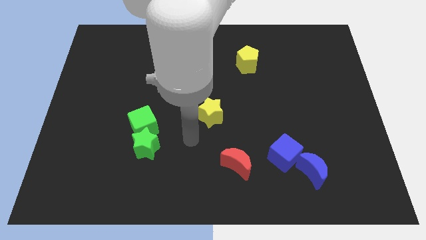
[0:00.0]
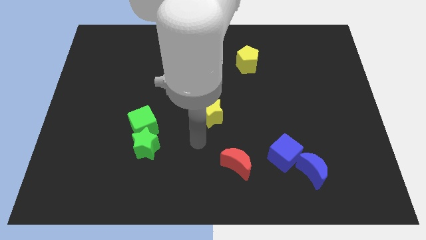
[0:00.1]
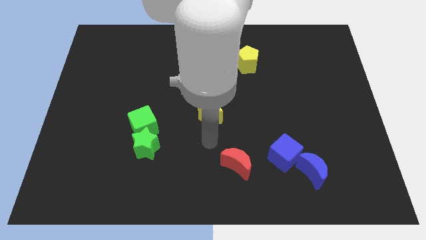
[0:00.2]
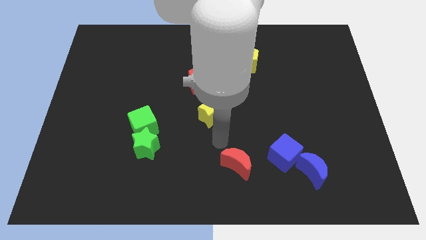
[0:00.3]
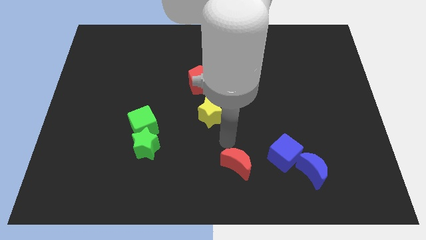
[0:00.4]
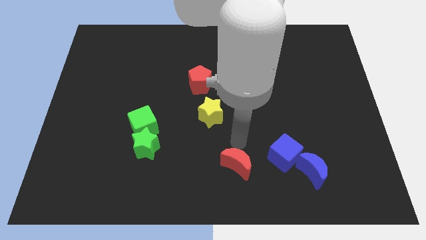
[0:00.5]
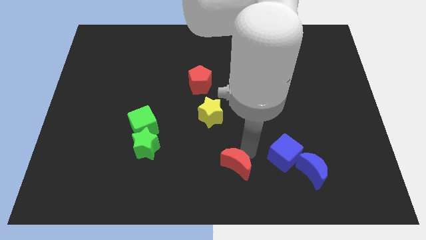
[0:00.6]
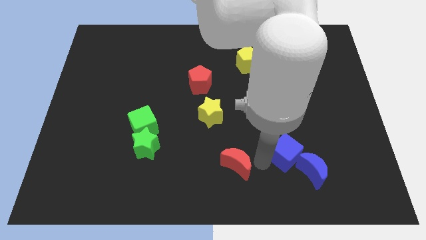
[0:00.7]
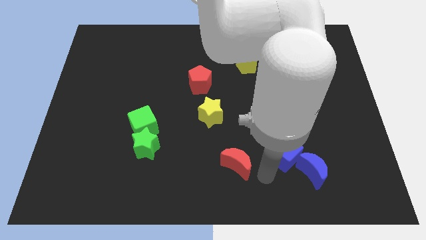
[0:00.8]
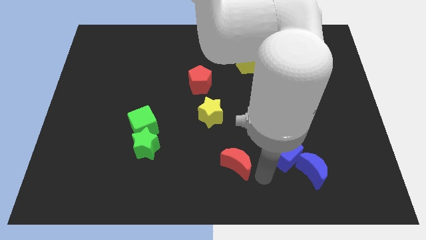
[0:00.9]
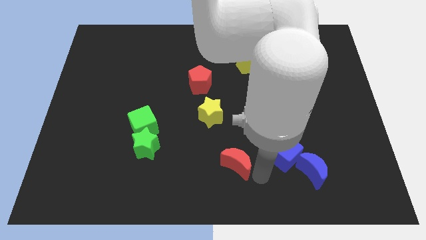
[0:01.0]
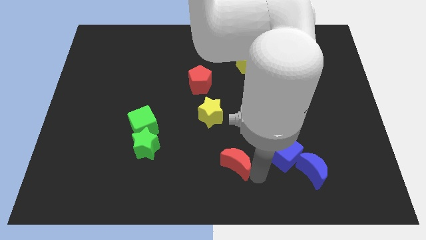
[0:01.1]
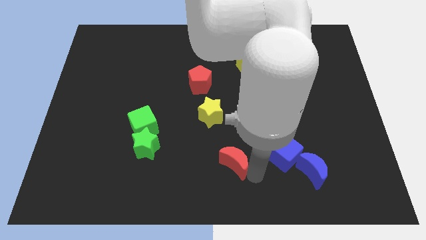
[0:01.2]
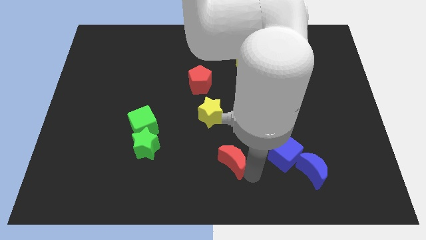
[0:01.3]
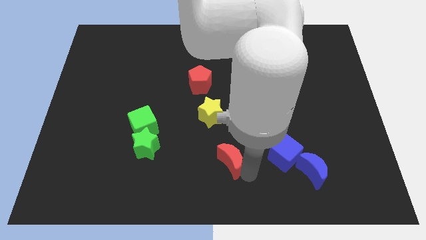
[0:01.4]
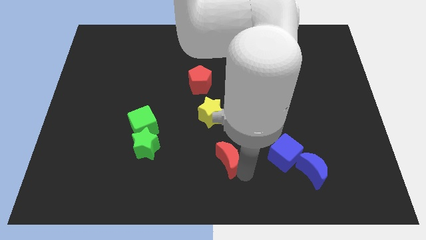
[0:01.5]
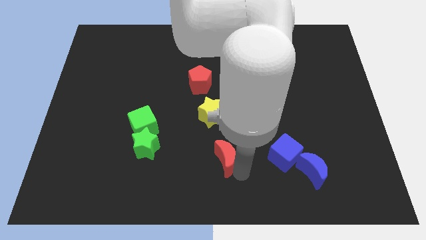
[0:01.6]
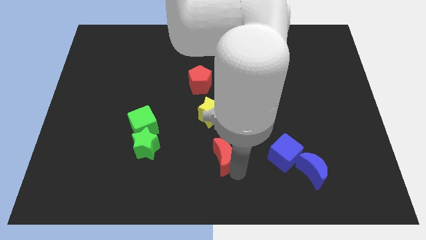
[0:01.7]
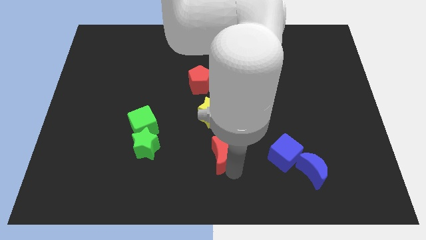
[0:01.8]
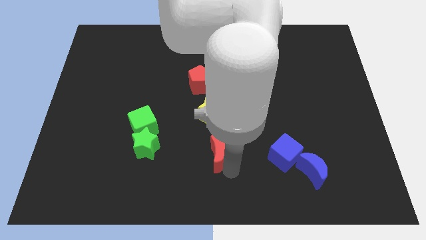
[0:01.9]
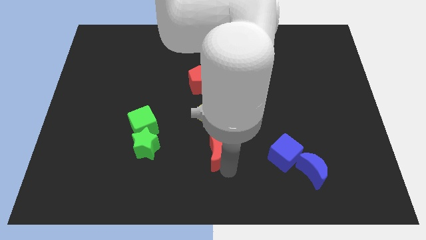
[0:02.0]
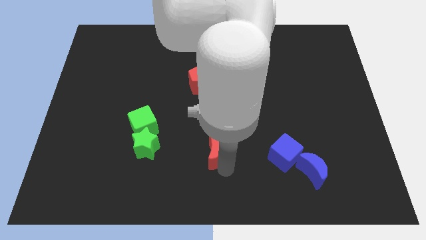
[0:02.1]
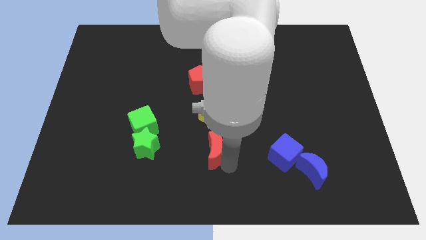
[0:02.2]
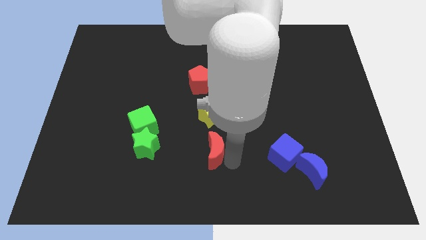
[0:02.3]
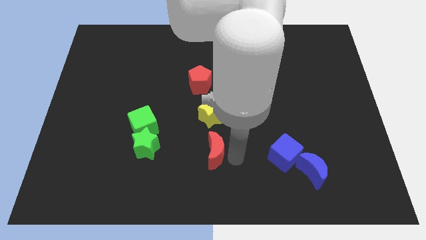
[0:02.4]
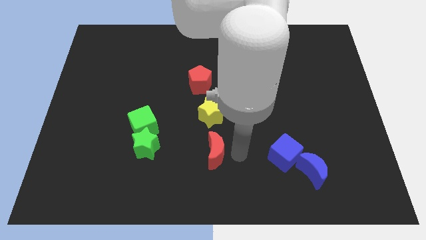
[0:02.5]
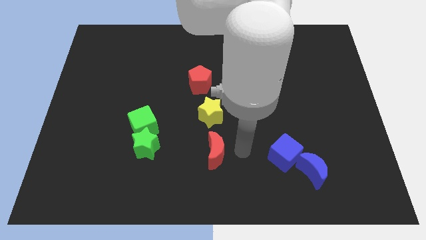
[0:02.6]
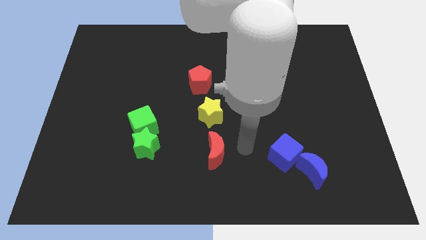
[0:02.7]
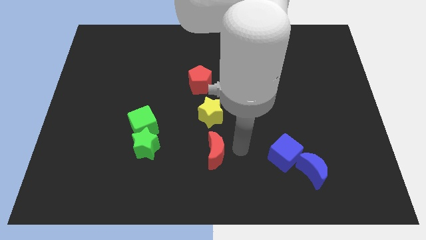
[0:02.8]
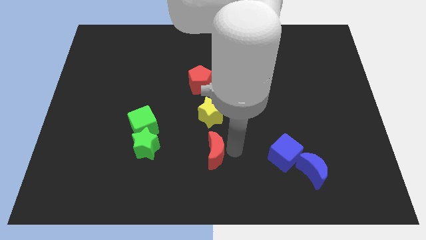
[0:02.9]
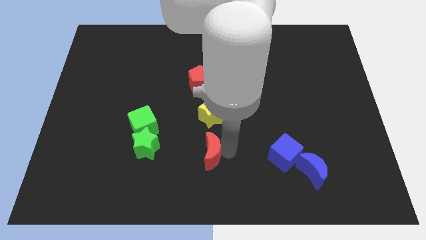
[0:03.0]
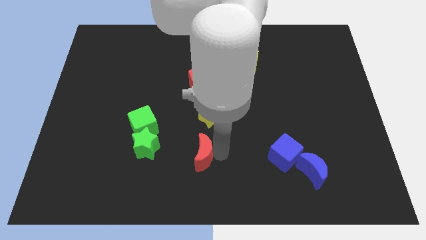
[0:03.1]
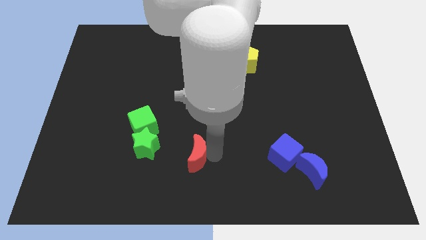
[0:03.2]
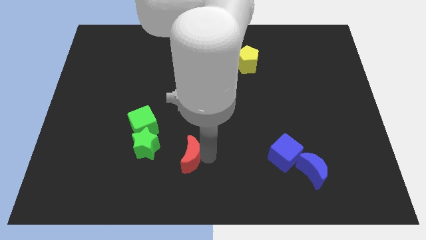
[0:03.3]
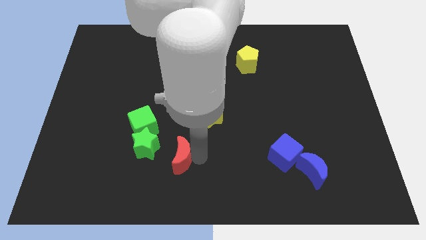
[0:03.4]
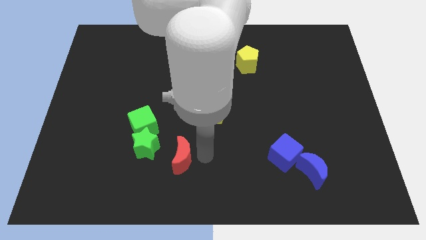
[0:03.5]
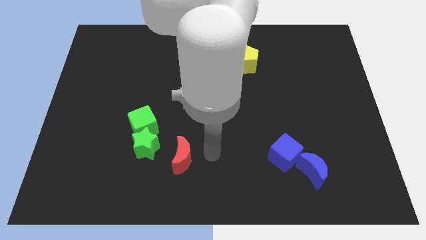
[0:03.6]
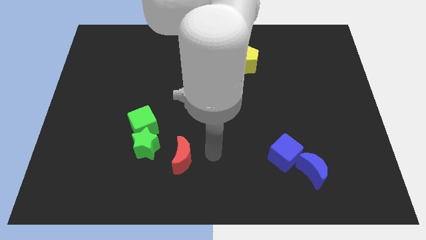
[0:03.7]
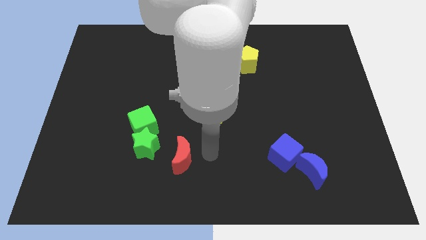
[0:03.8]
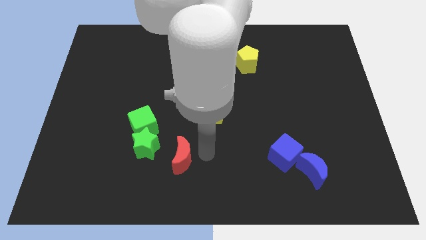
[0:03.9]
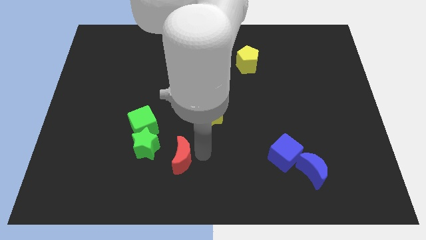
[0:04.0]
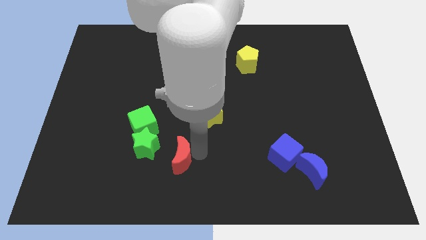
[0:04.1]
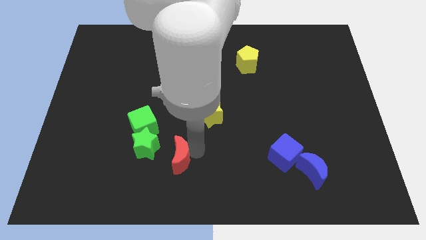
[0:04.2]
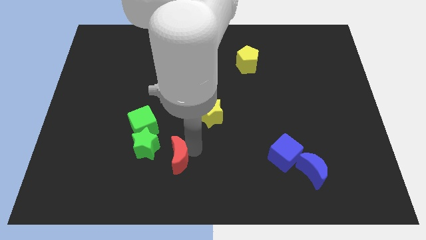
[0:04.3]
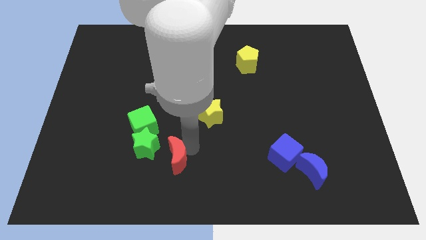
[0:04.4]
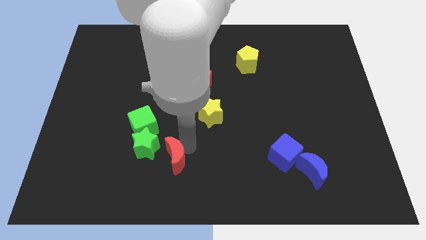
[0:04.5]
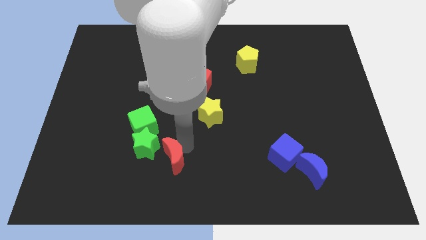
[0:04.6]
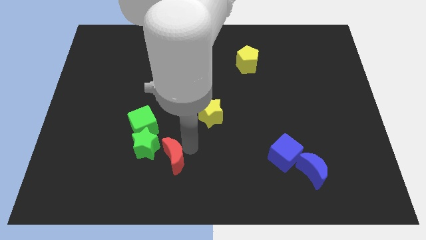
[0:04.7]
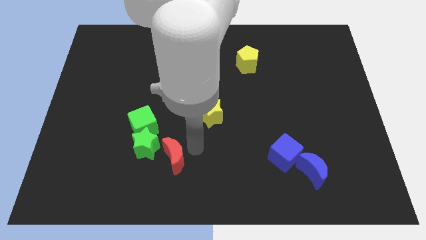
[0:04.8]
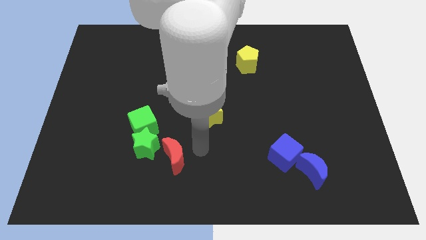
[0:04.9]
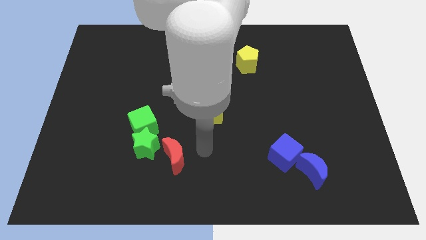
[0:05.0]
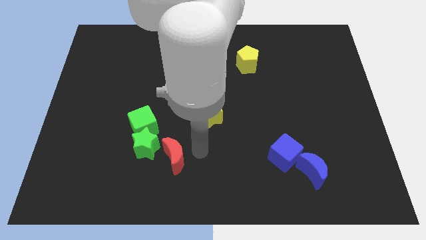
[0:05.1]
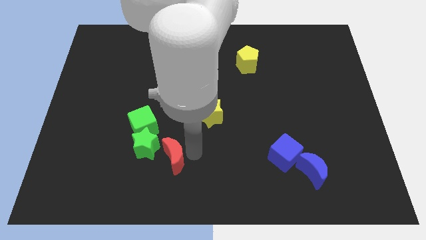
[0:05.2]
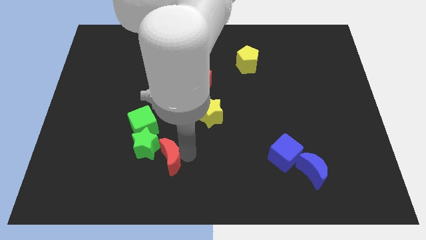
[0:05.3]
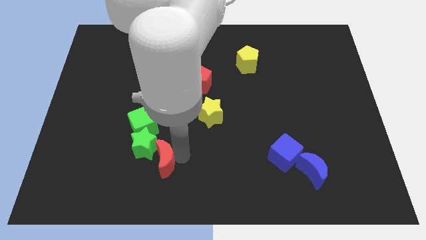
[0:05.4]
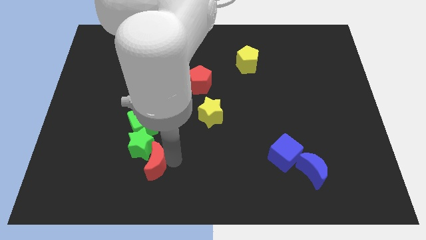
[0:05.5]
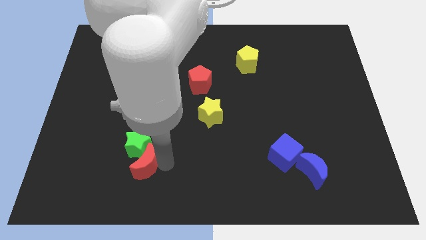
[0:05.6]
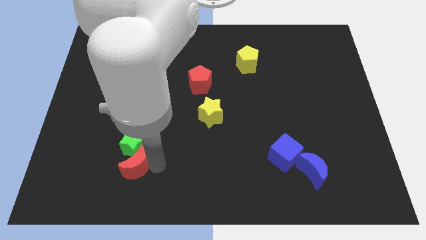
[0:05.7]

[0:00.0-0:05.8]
push the red moon left

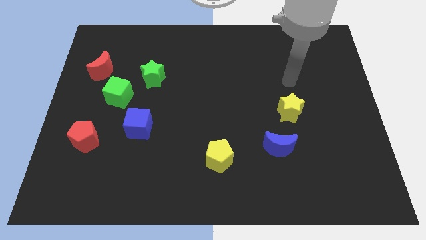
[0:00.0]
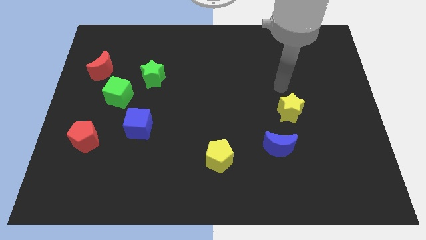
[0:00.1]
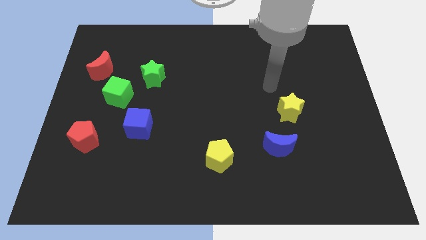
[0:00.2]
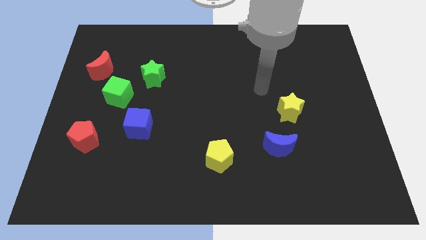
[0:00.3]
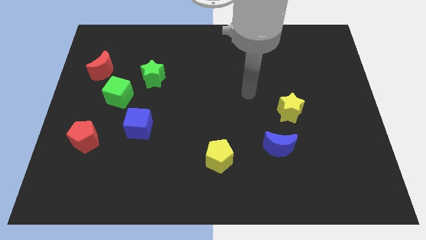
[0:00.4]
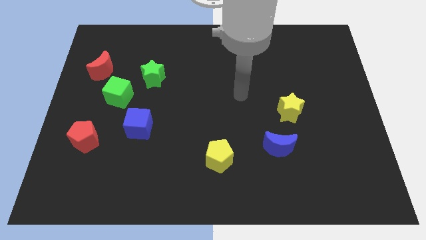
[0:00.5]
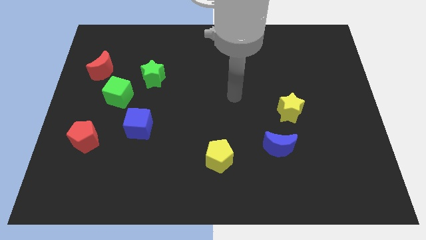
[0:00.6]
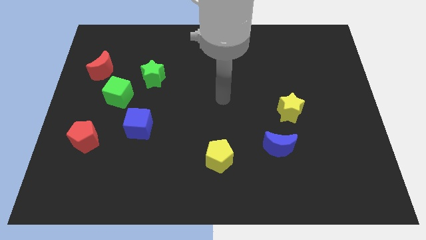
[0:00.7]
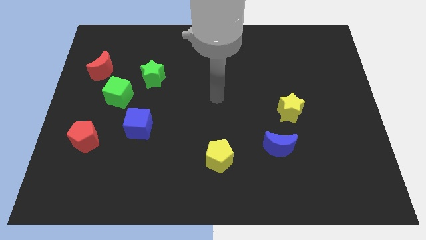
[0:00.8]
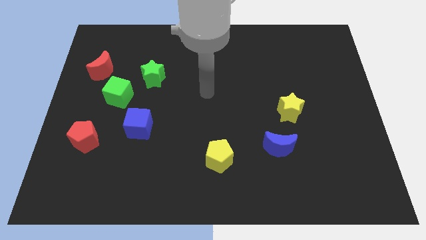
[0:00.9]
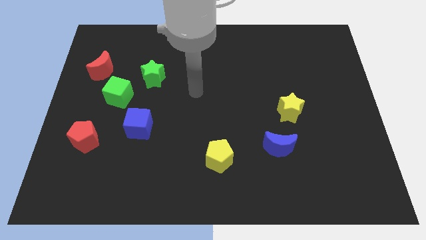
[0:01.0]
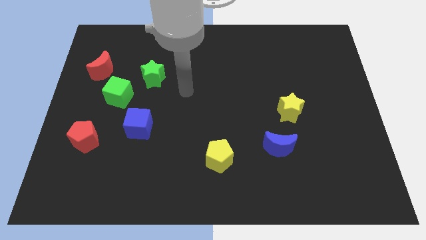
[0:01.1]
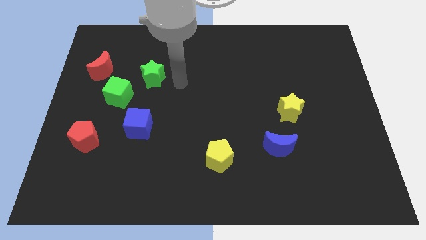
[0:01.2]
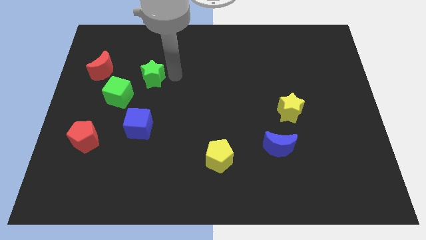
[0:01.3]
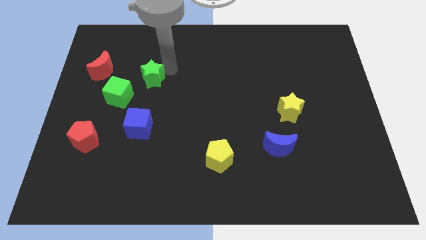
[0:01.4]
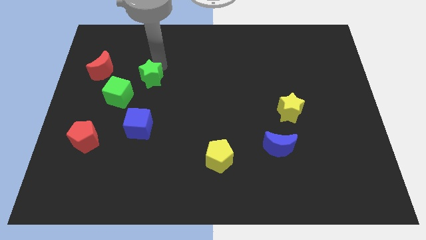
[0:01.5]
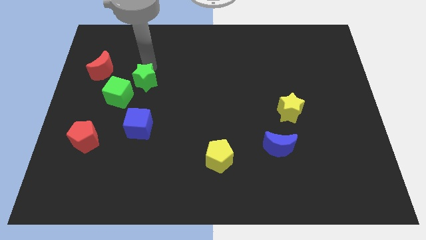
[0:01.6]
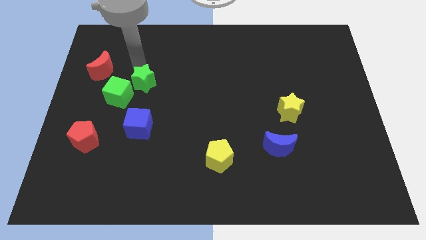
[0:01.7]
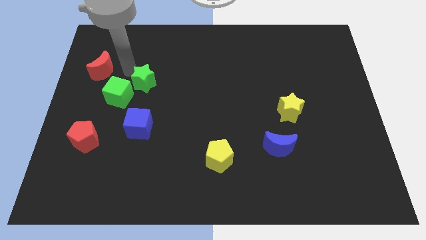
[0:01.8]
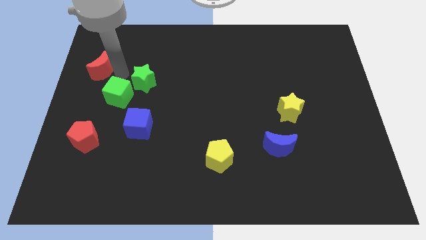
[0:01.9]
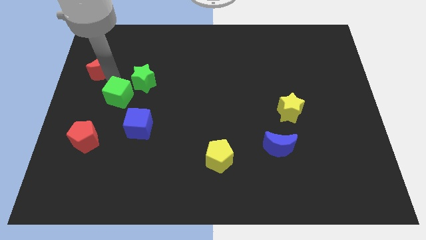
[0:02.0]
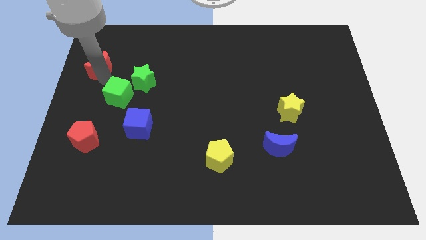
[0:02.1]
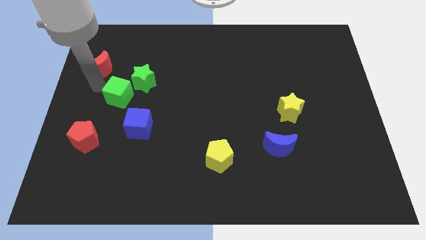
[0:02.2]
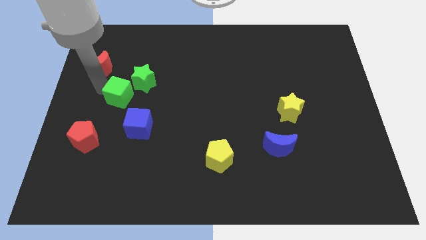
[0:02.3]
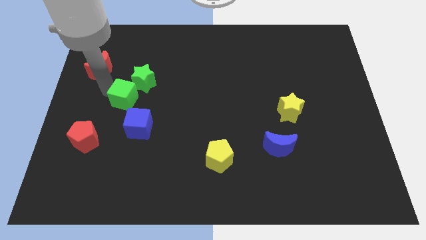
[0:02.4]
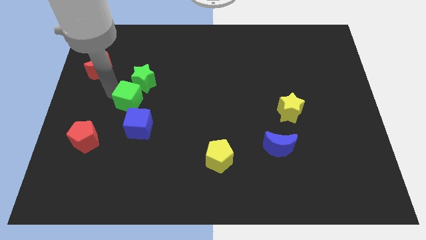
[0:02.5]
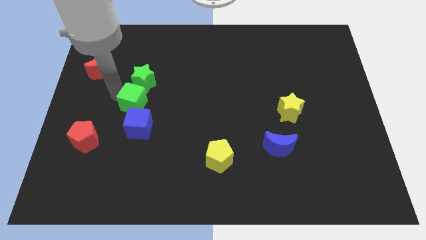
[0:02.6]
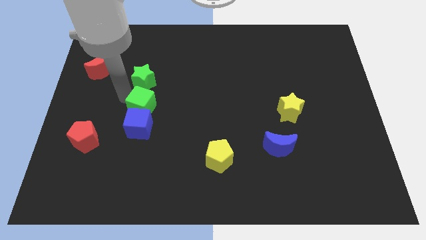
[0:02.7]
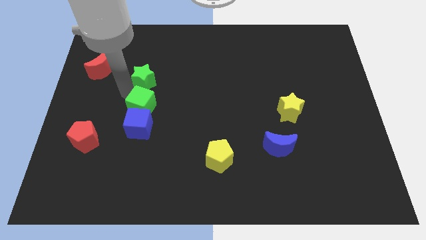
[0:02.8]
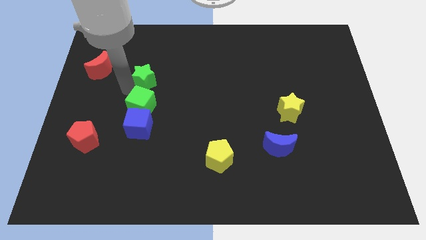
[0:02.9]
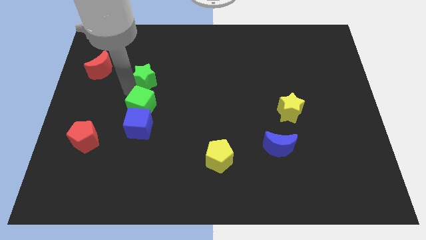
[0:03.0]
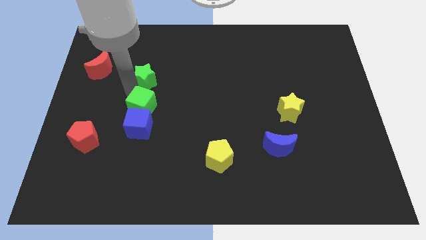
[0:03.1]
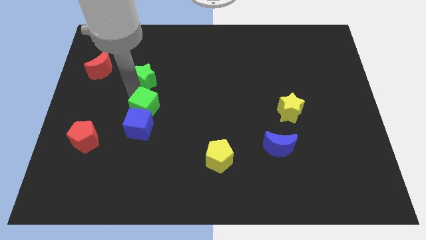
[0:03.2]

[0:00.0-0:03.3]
push the green cube somewhat downwards and to the right diagonally
